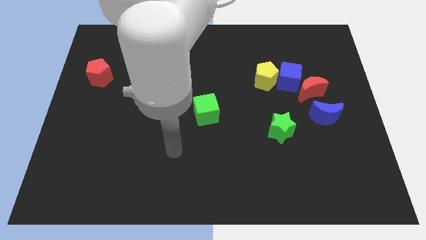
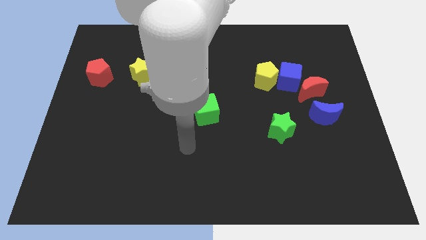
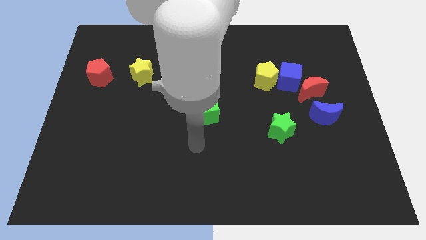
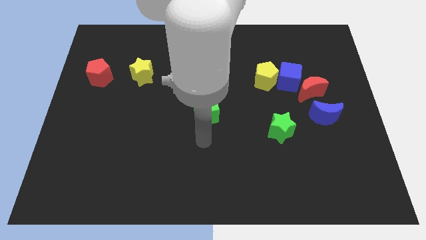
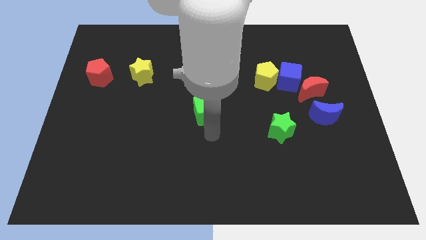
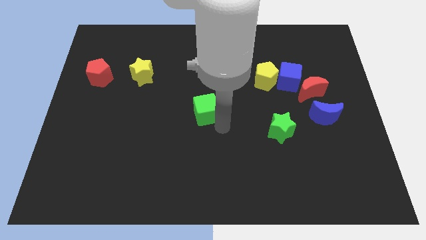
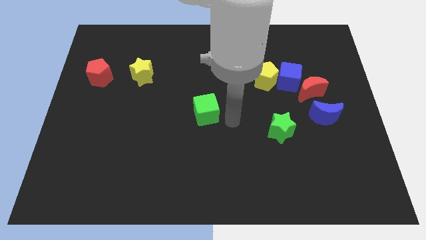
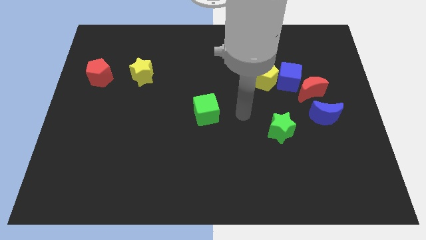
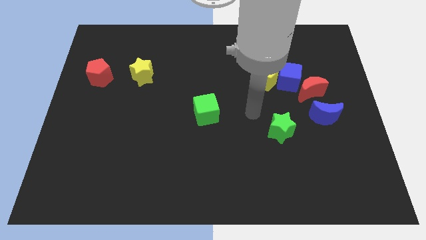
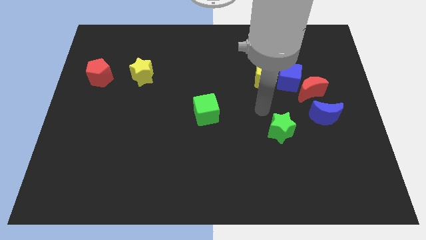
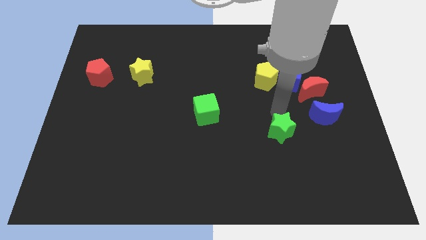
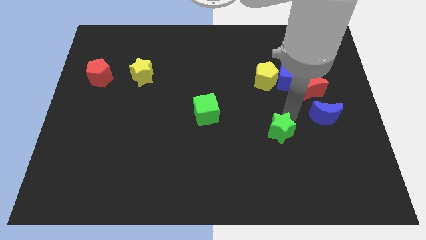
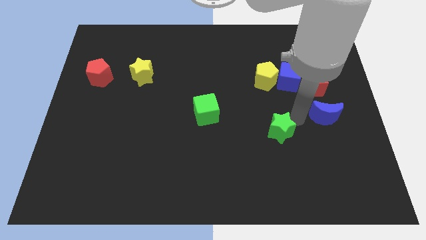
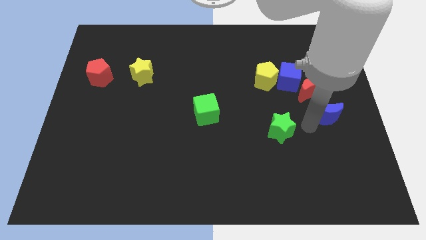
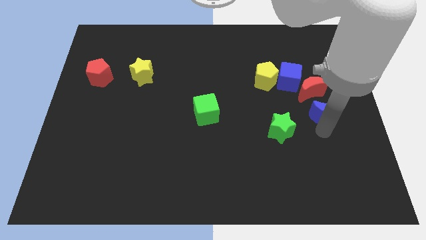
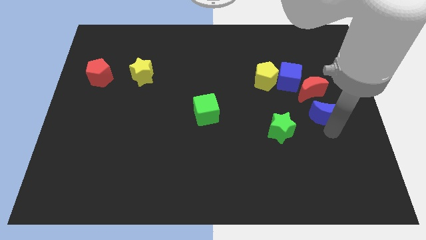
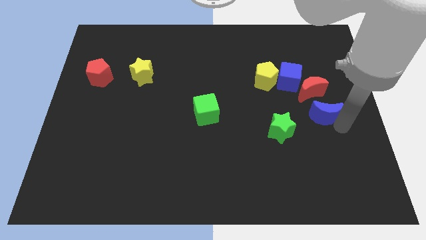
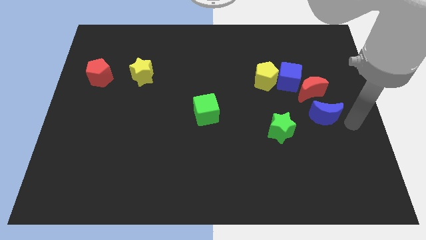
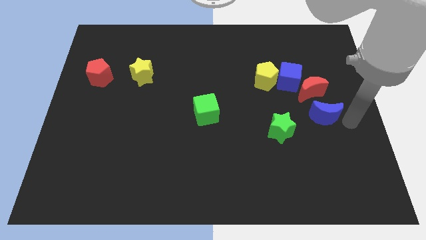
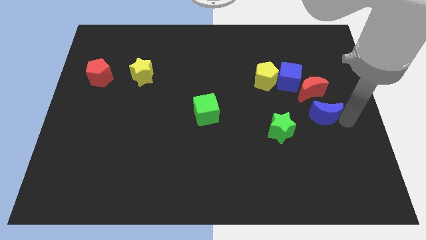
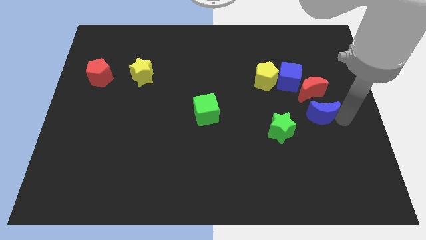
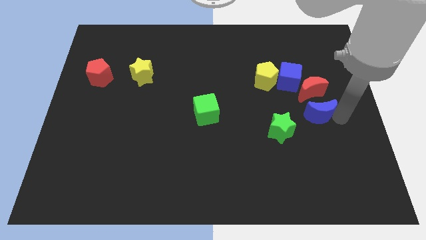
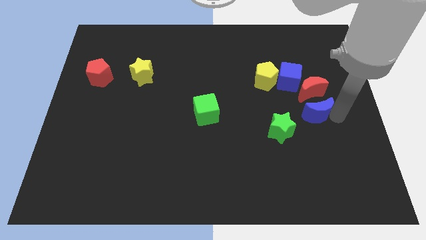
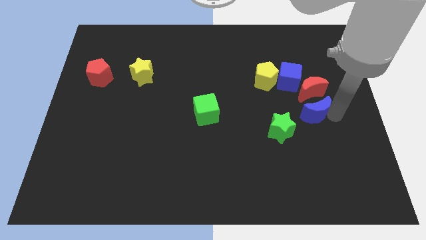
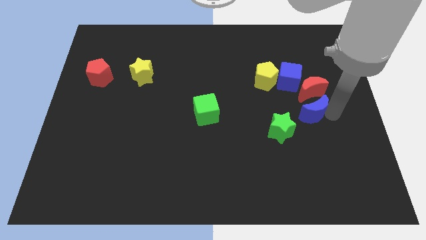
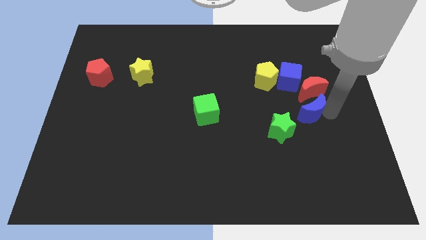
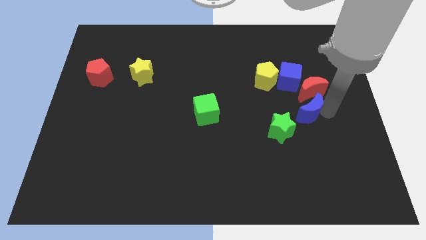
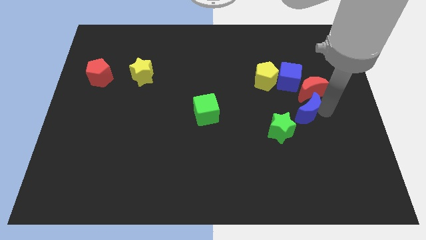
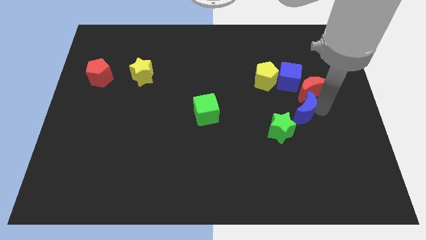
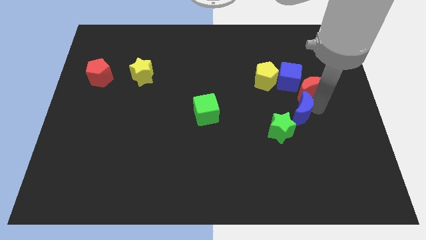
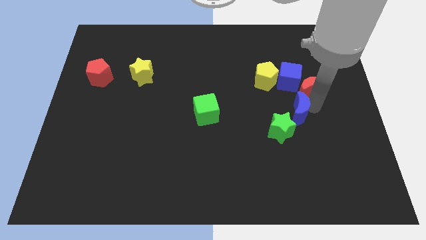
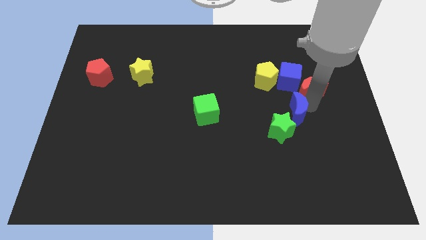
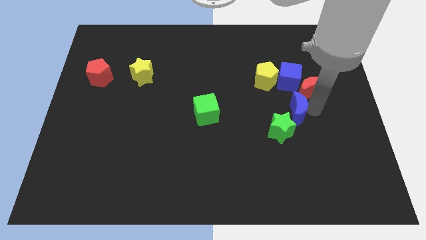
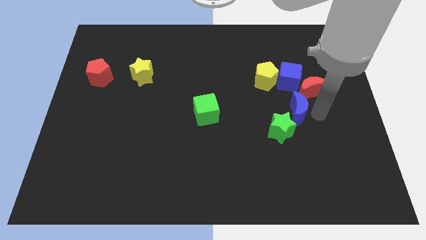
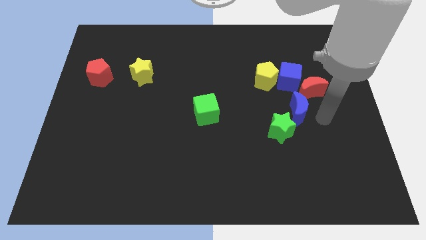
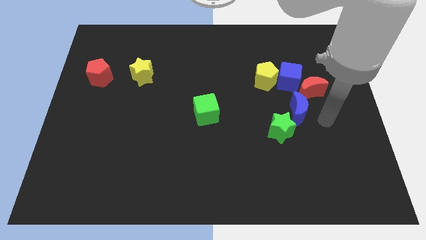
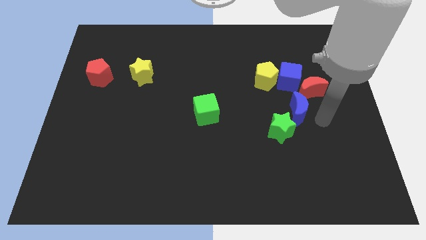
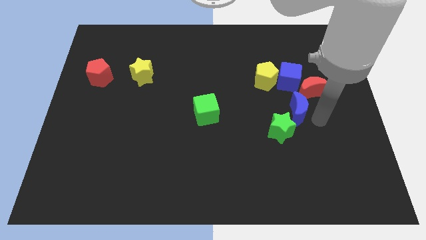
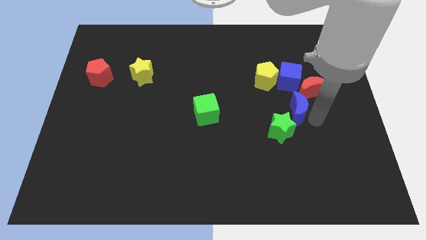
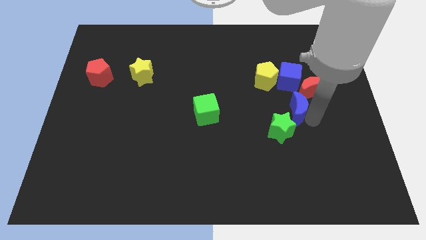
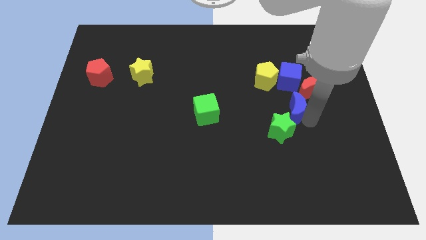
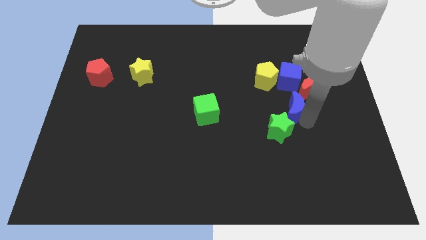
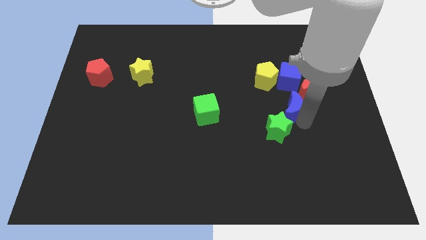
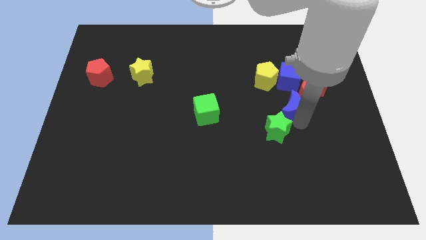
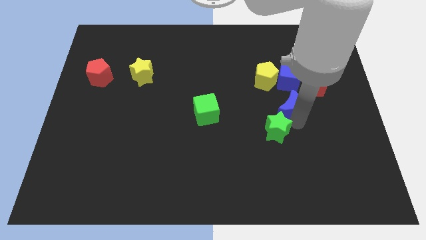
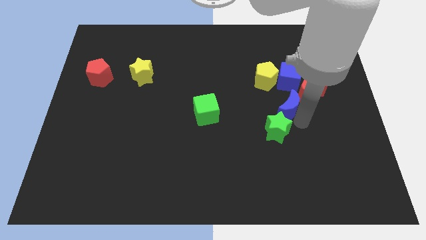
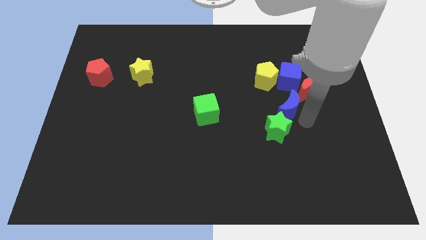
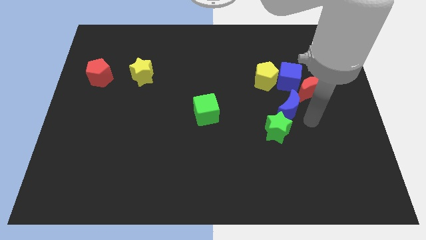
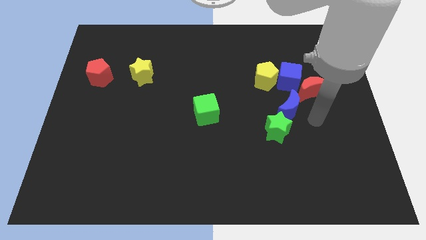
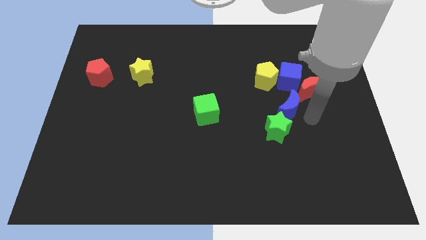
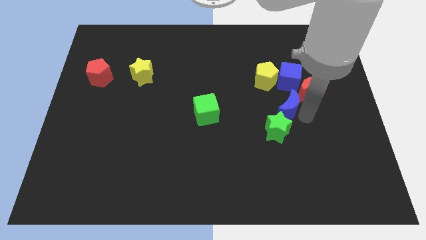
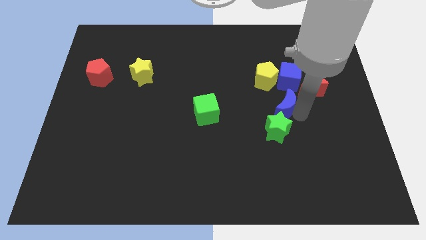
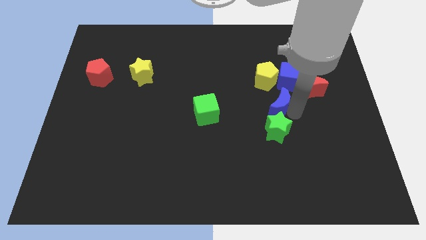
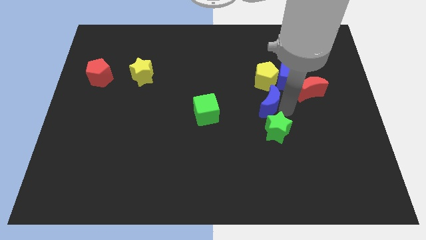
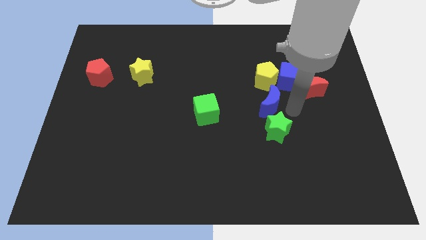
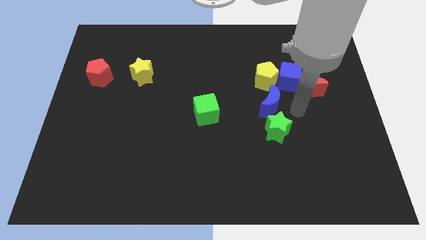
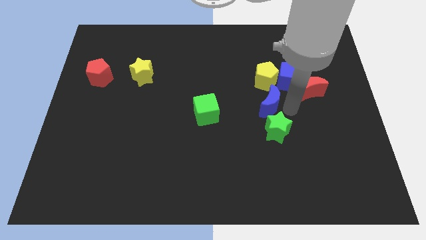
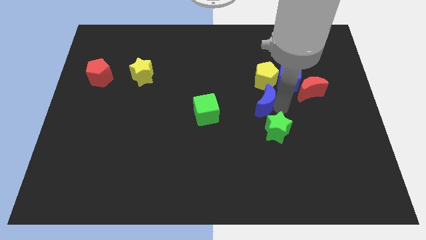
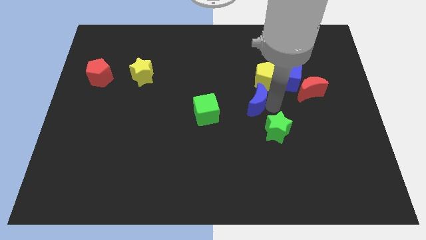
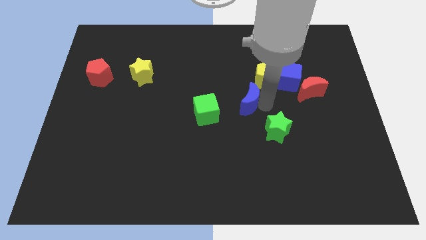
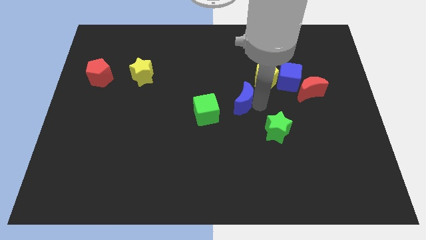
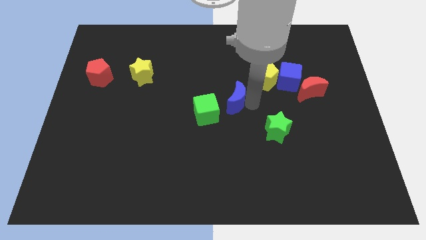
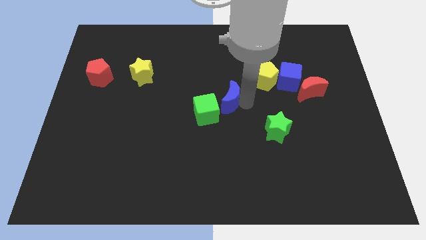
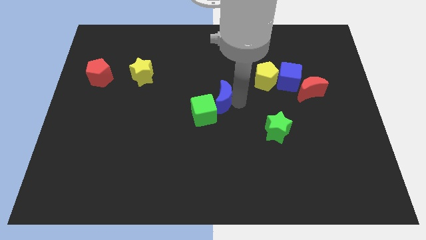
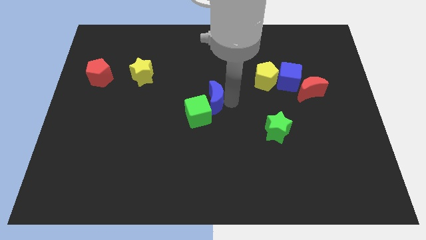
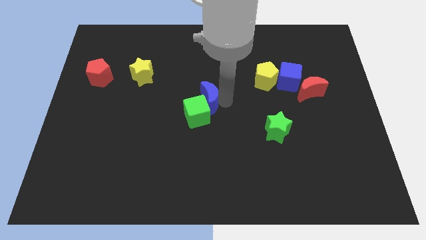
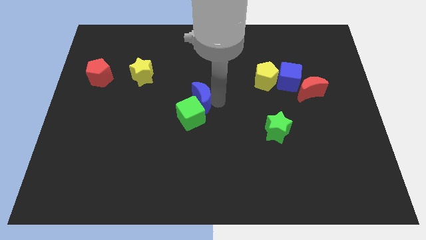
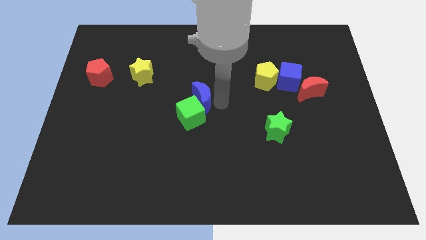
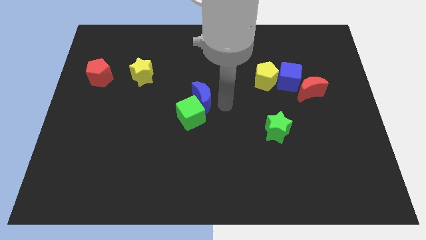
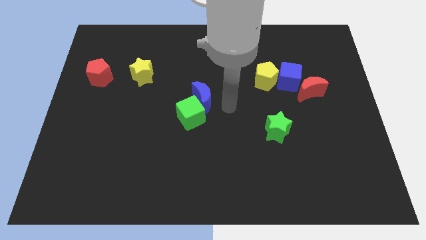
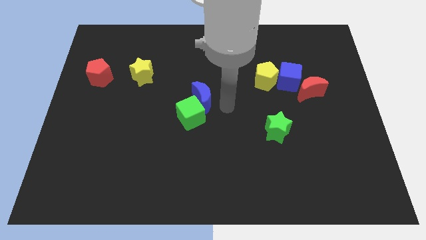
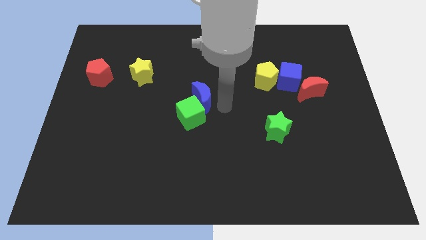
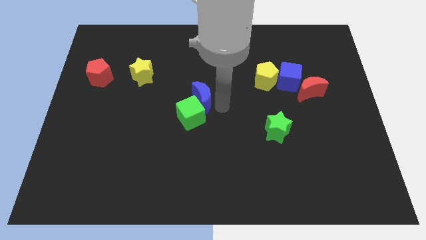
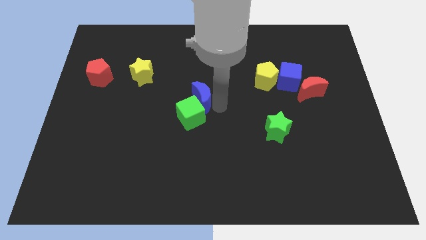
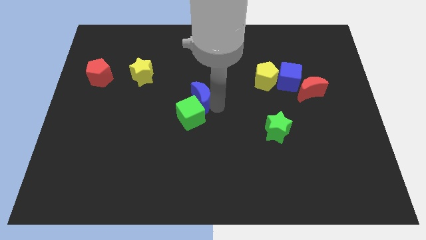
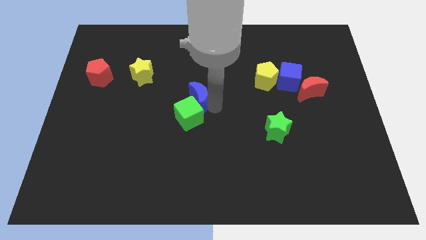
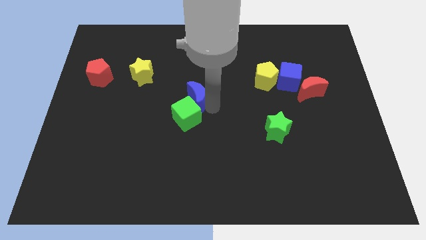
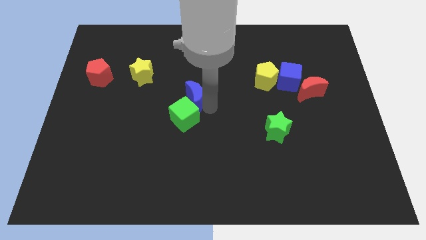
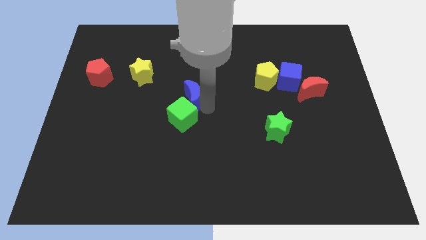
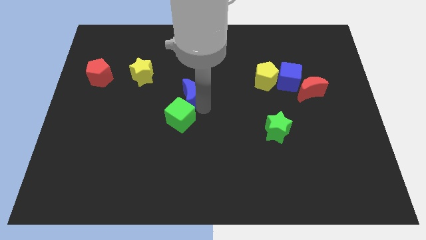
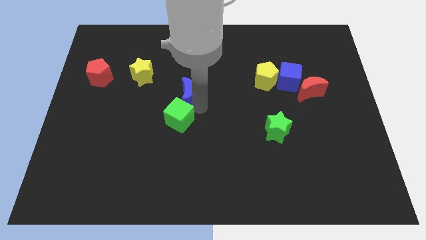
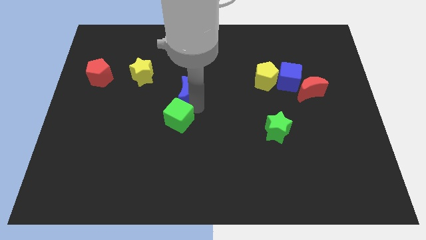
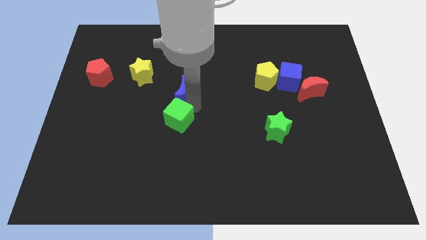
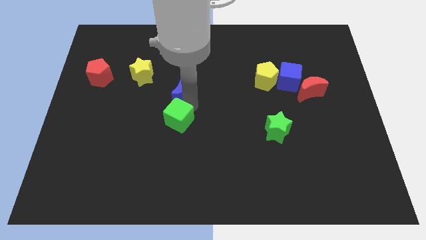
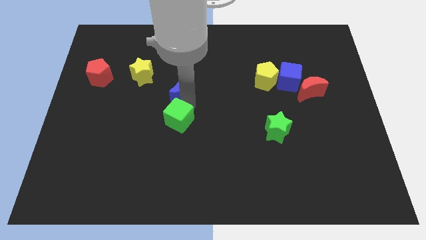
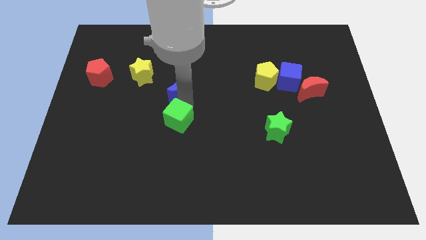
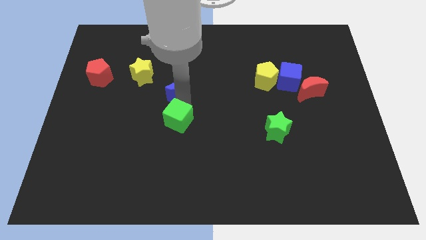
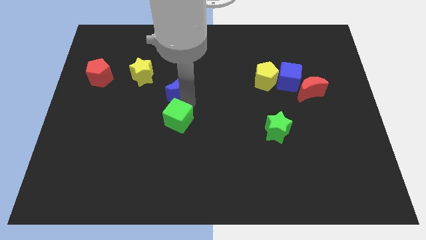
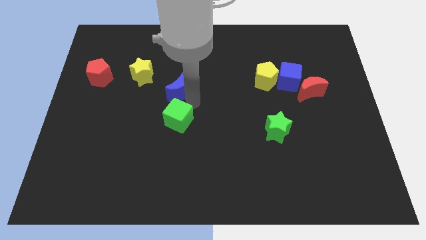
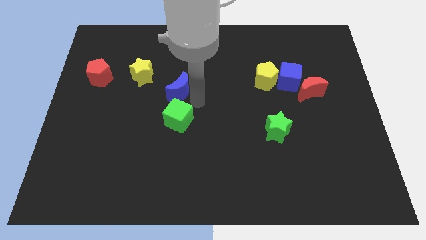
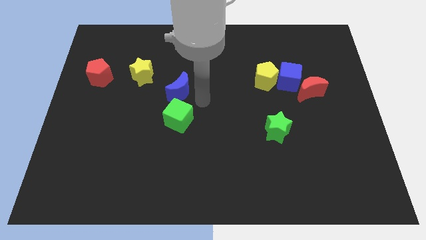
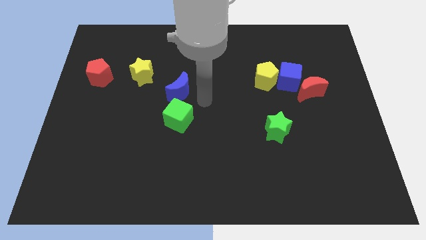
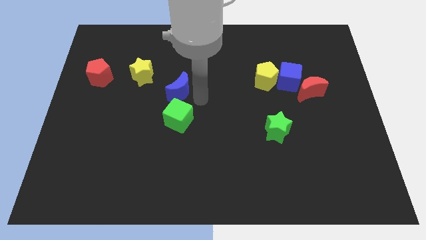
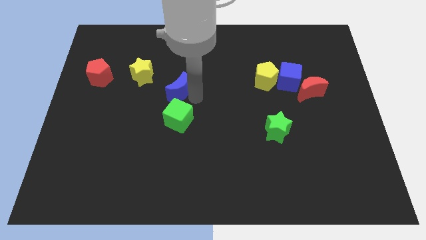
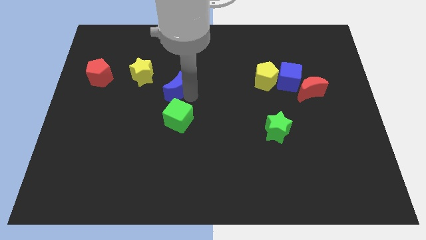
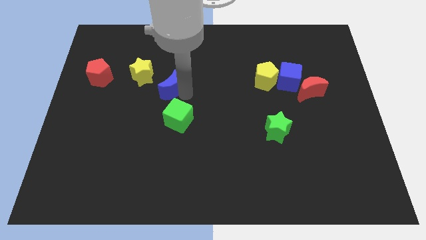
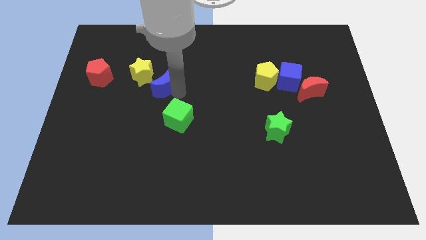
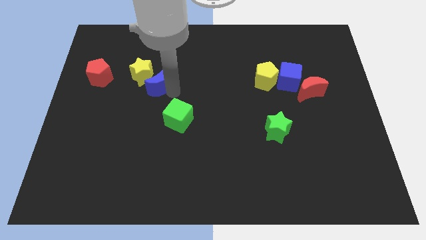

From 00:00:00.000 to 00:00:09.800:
put the blue moon next to the yellow star
